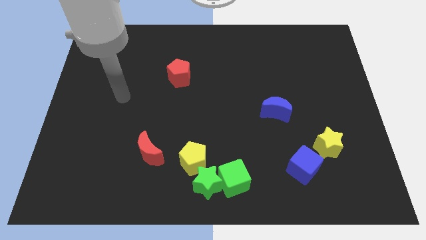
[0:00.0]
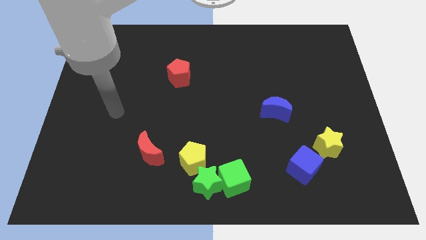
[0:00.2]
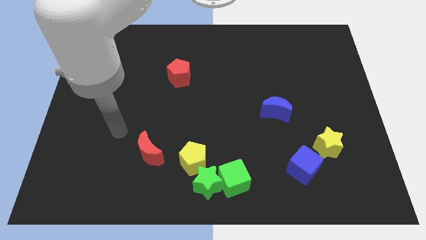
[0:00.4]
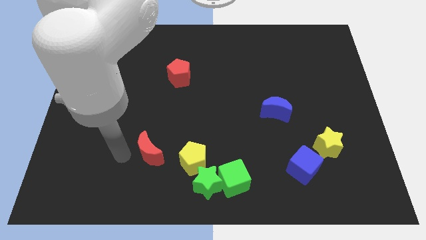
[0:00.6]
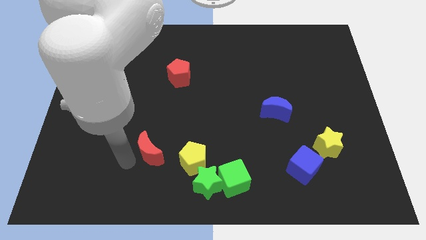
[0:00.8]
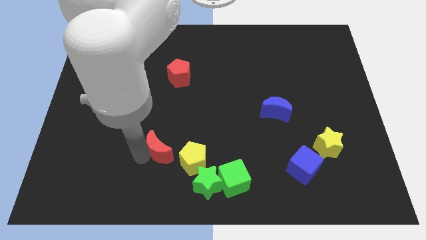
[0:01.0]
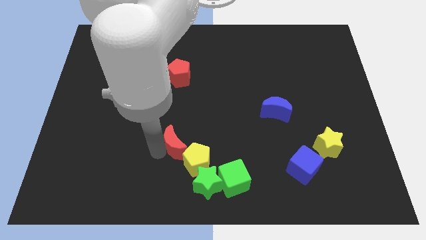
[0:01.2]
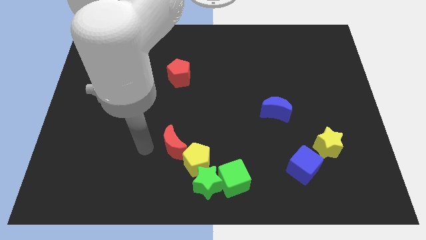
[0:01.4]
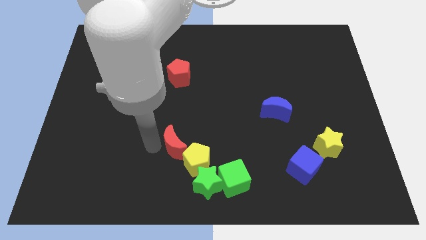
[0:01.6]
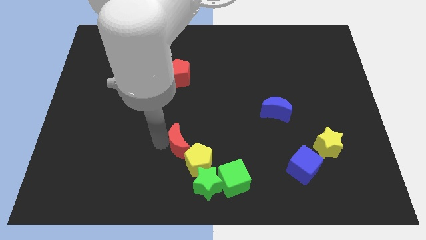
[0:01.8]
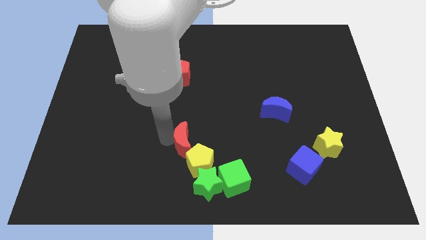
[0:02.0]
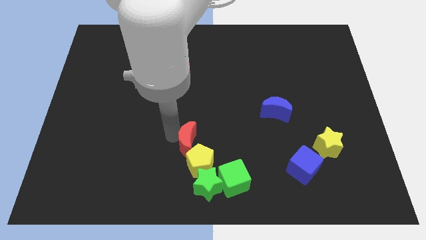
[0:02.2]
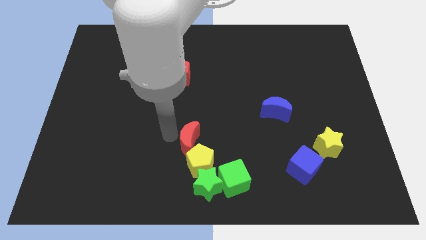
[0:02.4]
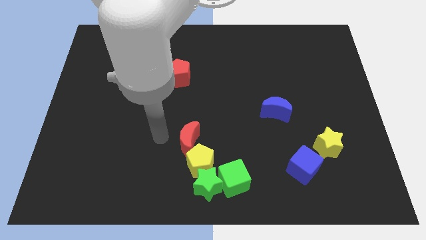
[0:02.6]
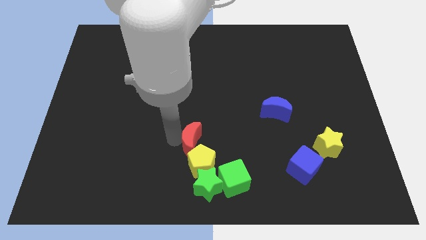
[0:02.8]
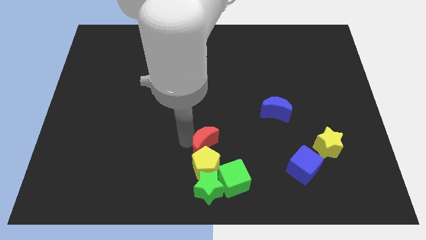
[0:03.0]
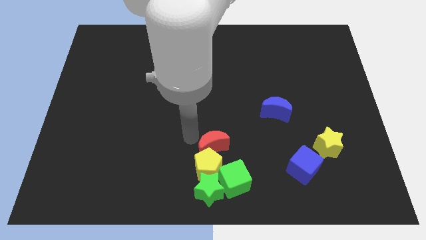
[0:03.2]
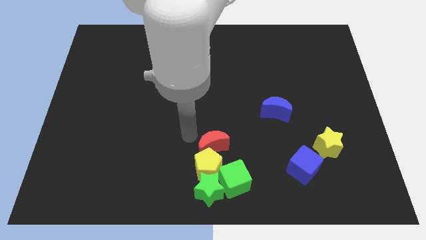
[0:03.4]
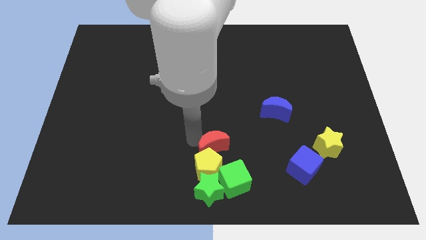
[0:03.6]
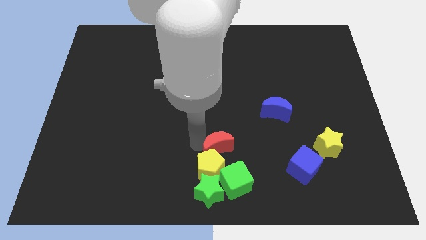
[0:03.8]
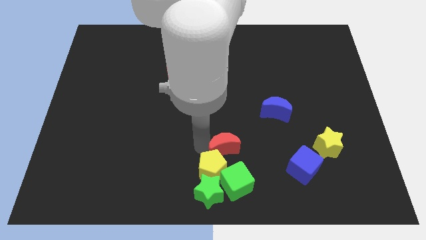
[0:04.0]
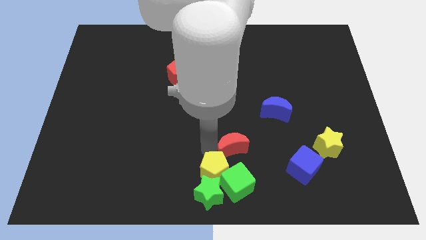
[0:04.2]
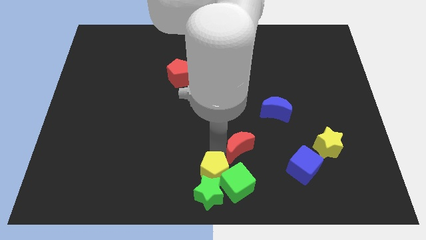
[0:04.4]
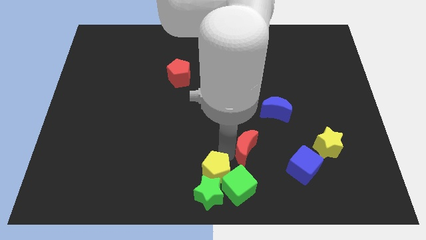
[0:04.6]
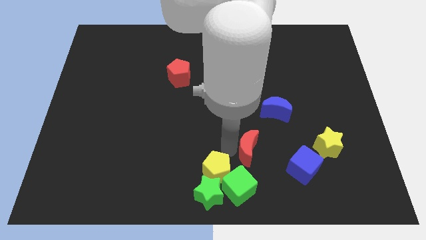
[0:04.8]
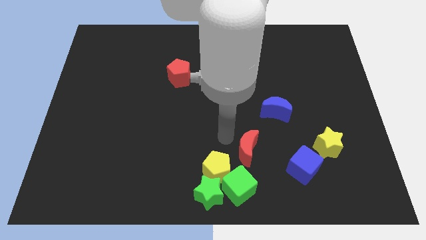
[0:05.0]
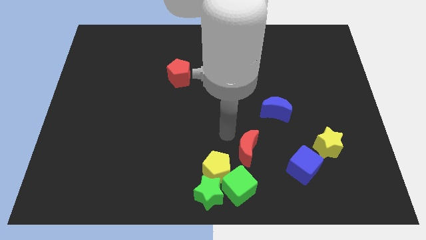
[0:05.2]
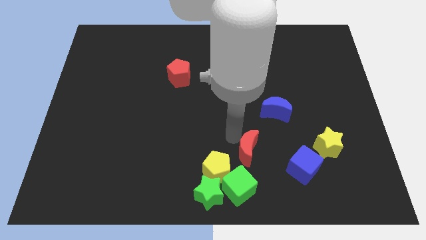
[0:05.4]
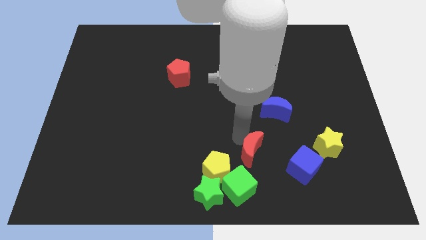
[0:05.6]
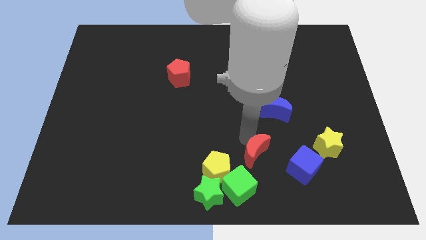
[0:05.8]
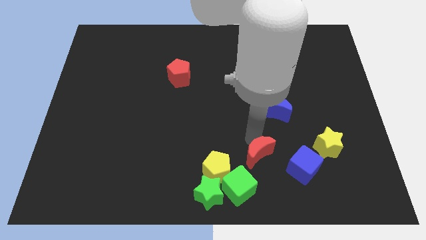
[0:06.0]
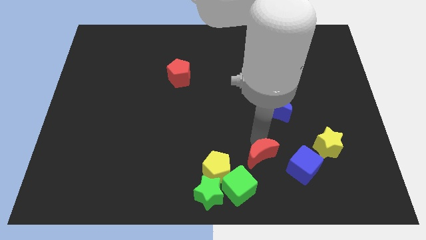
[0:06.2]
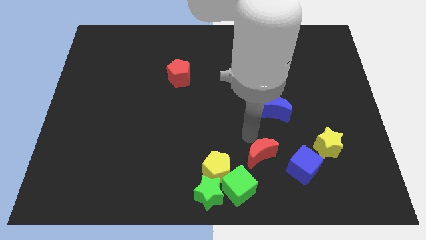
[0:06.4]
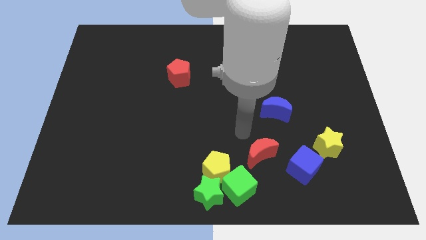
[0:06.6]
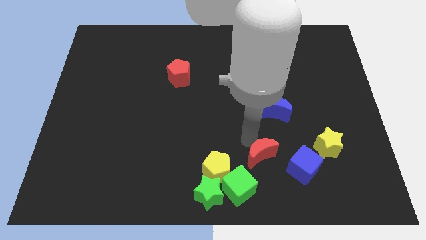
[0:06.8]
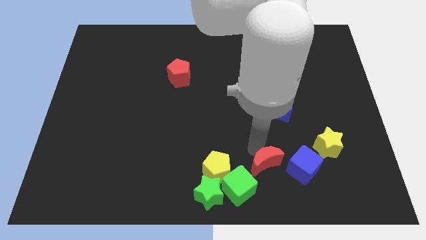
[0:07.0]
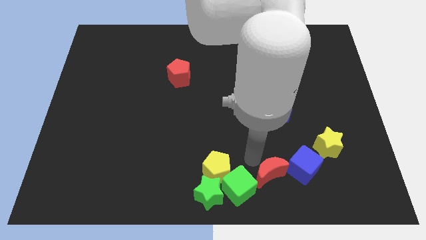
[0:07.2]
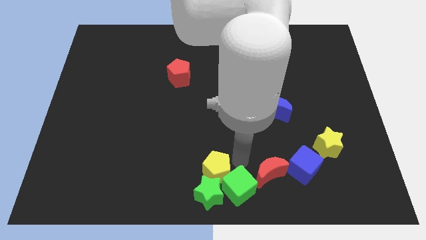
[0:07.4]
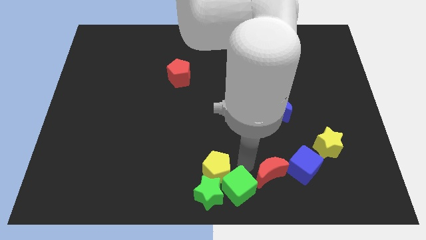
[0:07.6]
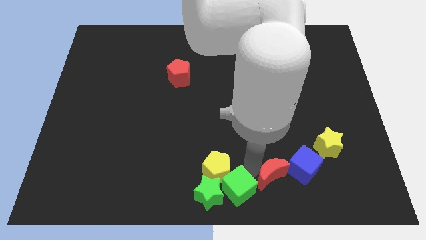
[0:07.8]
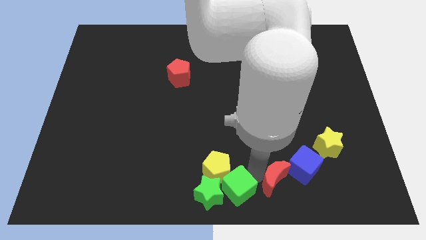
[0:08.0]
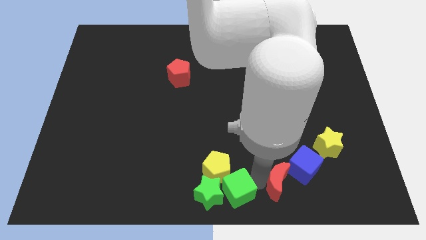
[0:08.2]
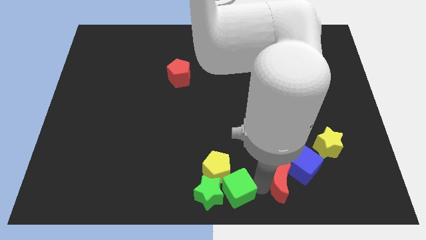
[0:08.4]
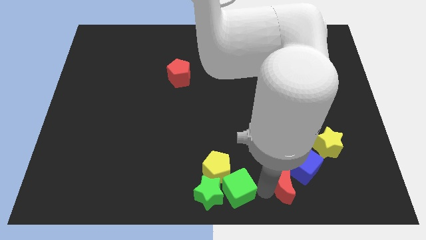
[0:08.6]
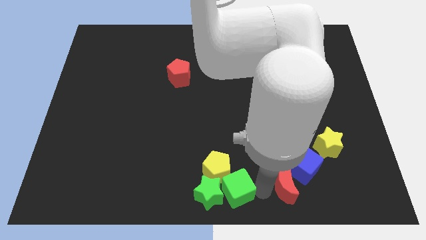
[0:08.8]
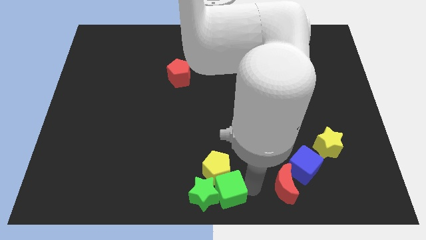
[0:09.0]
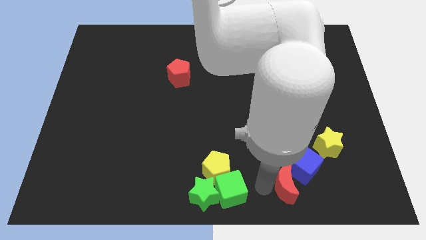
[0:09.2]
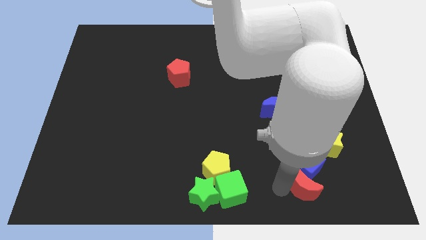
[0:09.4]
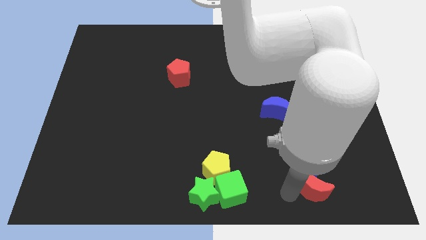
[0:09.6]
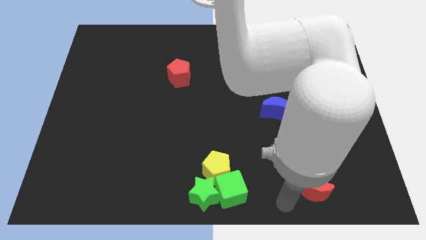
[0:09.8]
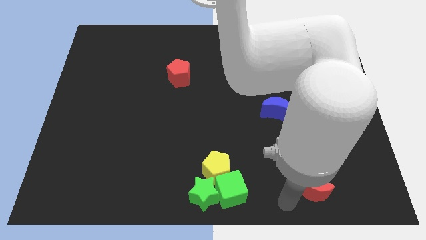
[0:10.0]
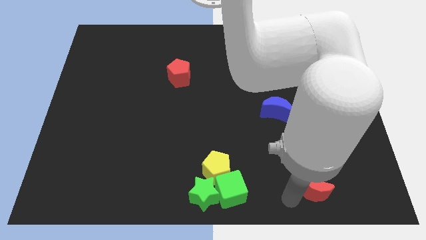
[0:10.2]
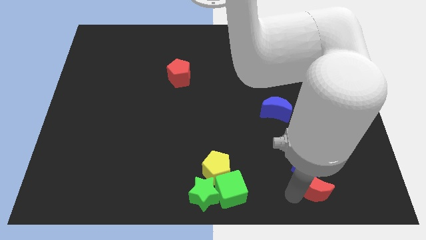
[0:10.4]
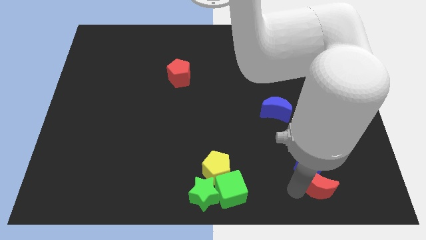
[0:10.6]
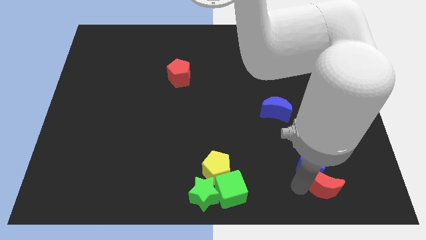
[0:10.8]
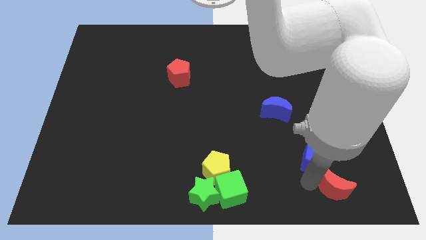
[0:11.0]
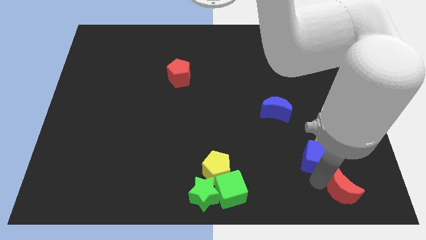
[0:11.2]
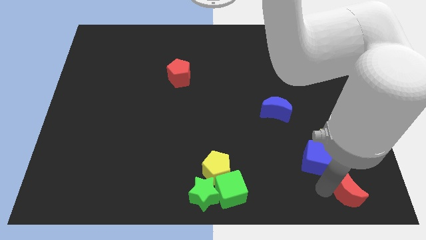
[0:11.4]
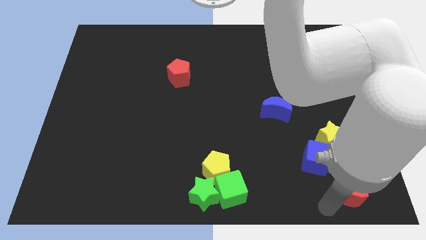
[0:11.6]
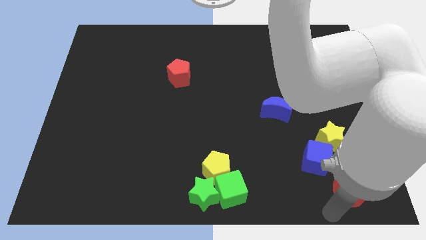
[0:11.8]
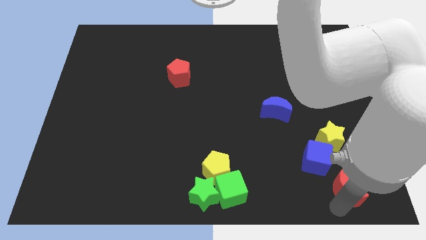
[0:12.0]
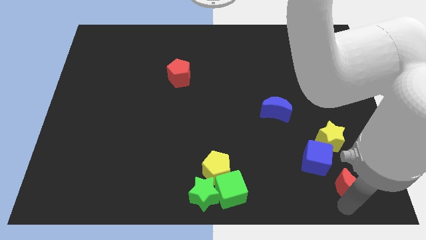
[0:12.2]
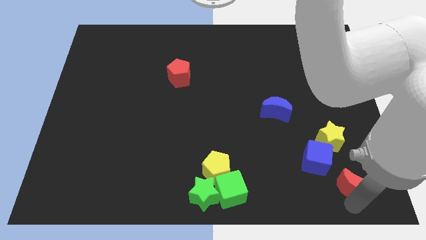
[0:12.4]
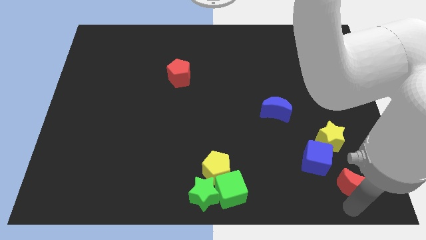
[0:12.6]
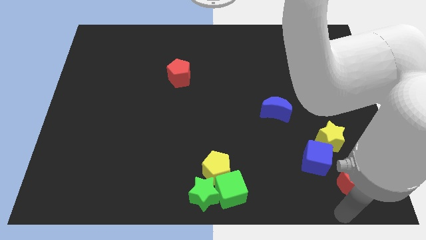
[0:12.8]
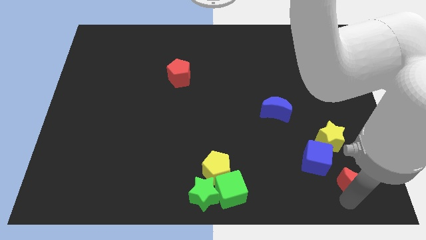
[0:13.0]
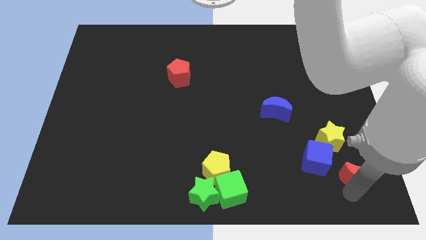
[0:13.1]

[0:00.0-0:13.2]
move the red moon to the right side of the blue cube

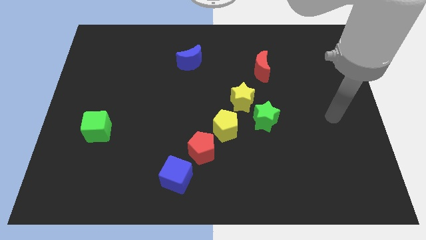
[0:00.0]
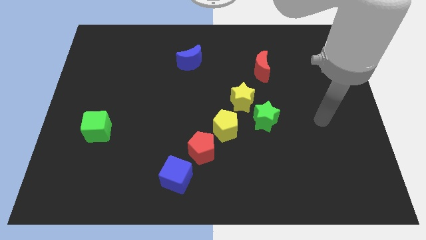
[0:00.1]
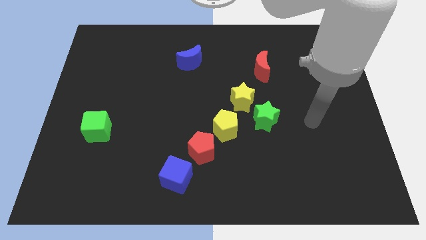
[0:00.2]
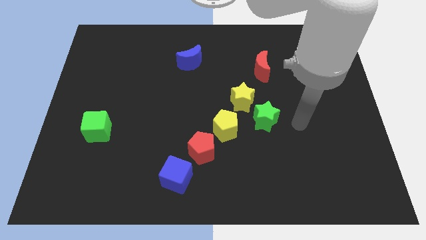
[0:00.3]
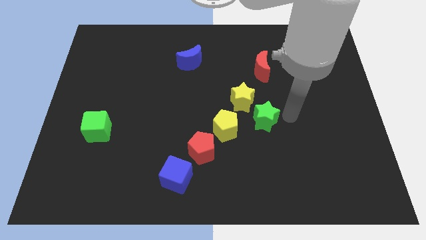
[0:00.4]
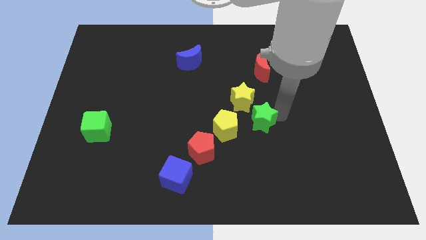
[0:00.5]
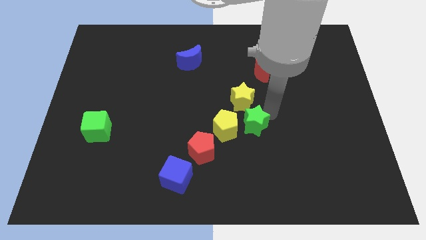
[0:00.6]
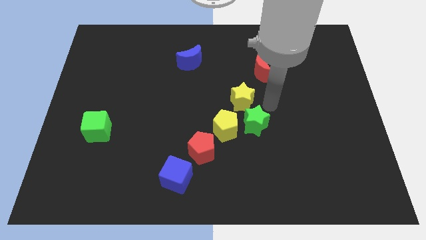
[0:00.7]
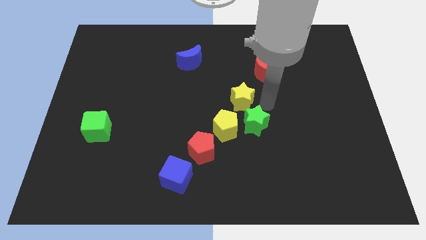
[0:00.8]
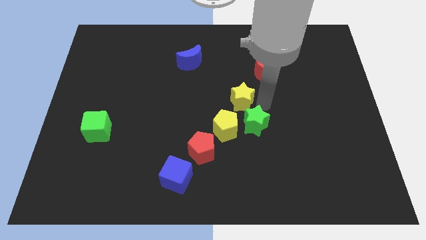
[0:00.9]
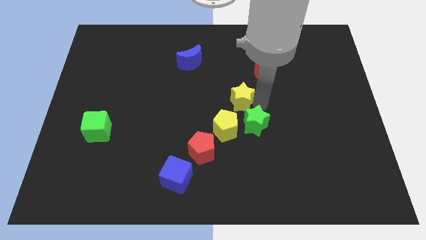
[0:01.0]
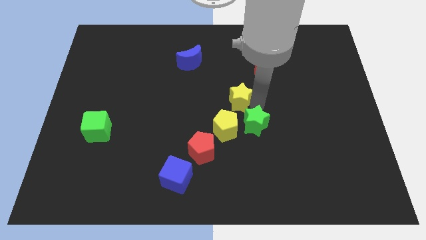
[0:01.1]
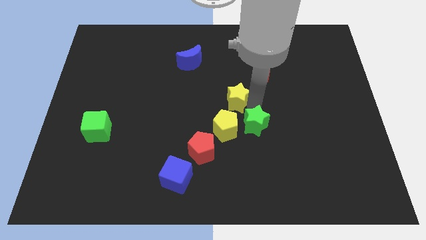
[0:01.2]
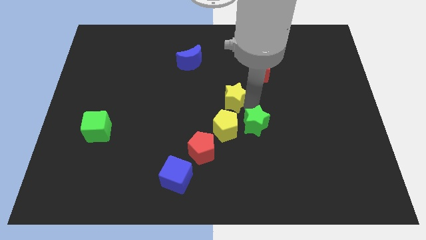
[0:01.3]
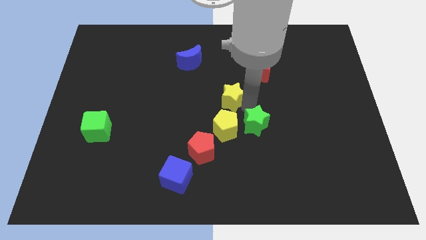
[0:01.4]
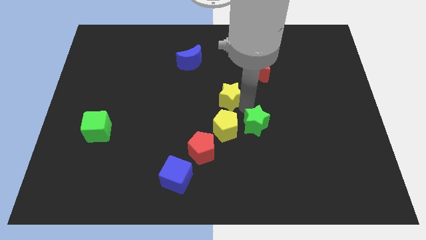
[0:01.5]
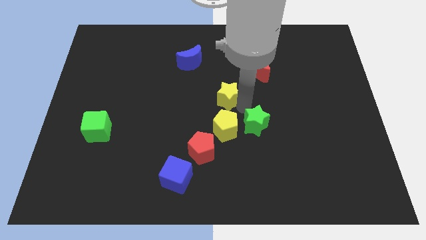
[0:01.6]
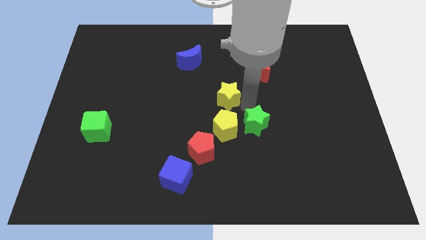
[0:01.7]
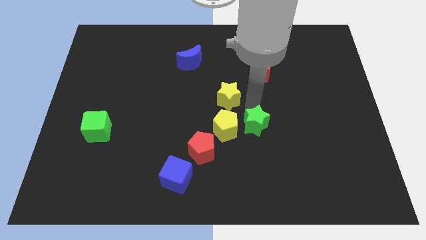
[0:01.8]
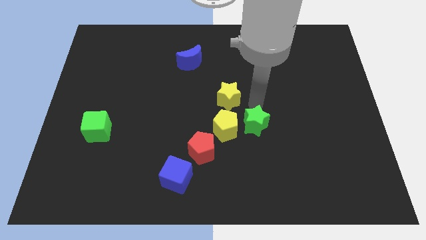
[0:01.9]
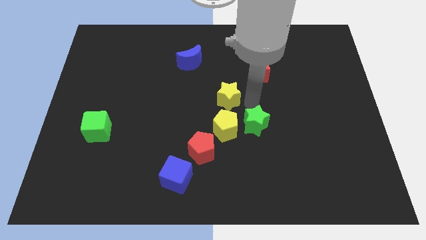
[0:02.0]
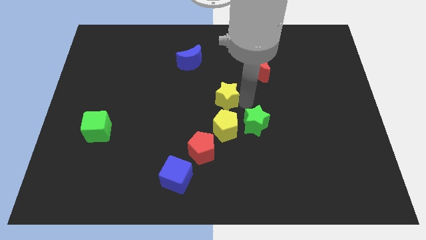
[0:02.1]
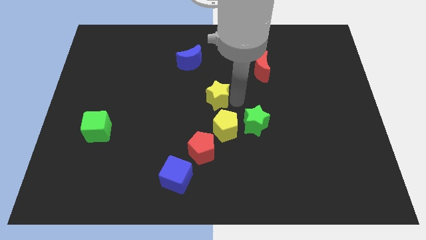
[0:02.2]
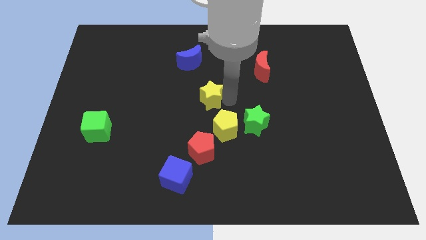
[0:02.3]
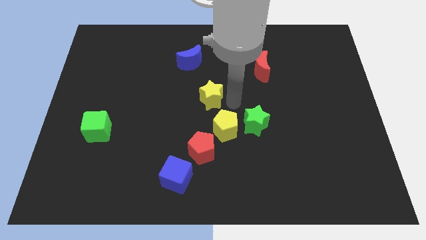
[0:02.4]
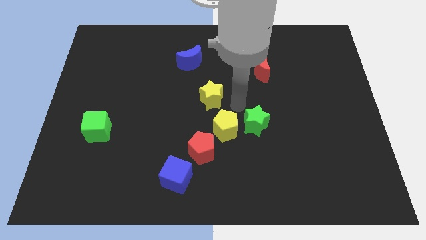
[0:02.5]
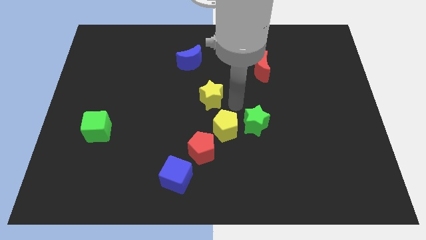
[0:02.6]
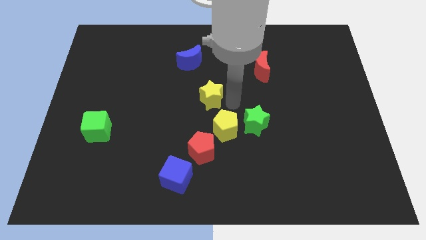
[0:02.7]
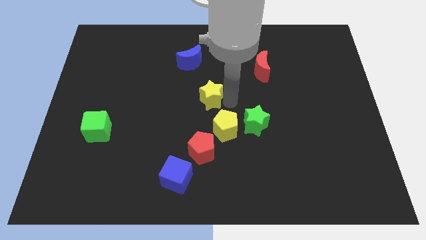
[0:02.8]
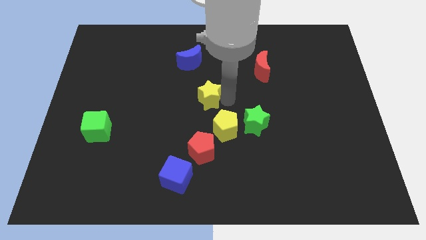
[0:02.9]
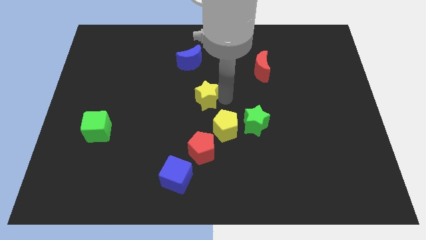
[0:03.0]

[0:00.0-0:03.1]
push the yellow star to the bottom side of the blue moon
